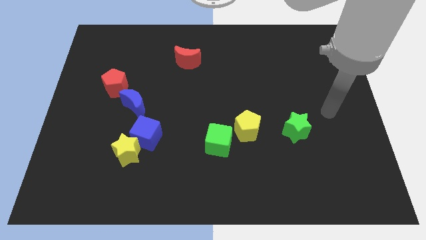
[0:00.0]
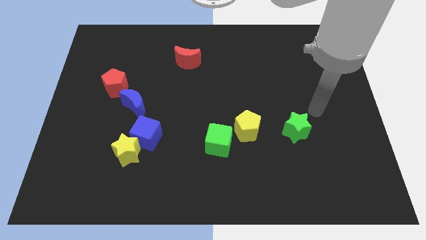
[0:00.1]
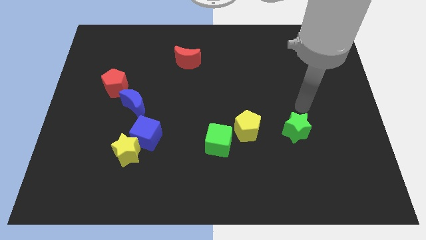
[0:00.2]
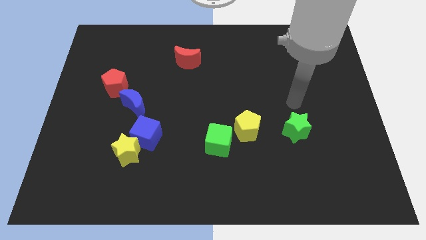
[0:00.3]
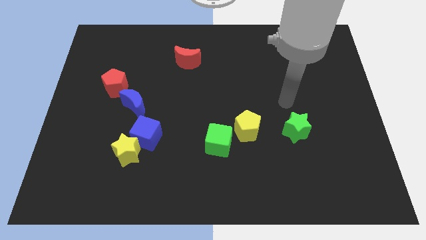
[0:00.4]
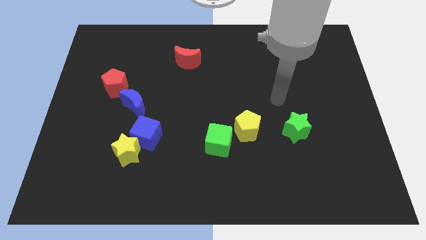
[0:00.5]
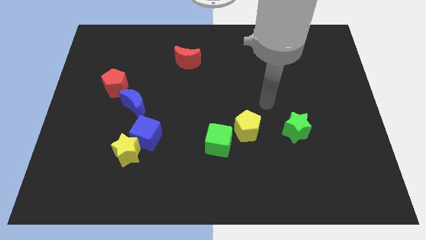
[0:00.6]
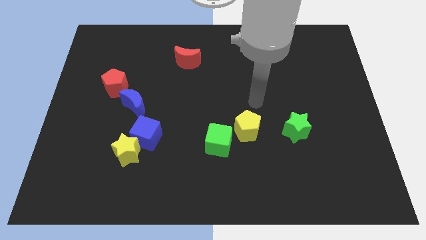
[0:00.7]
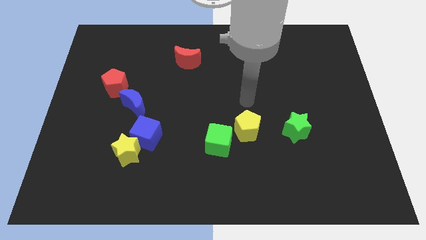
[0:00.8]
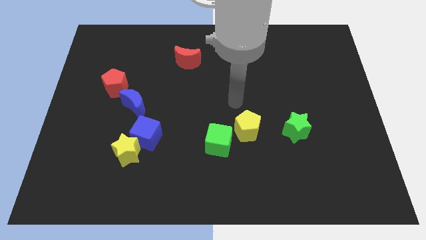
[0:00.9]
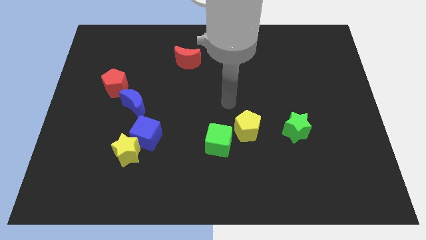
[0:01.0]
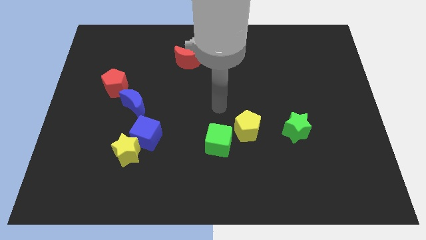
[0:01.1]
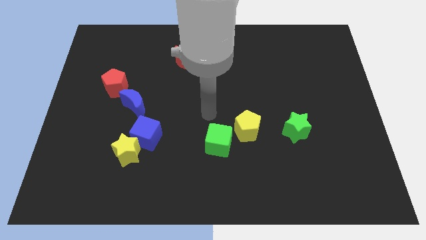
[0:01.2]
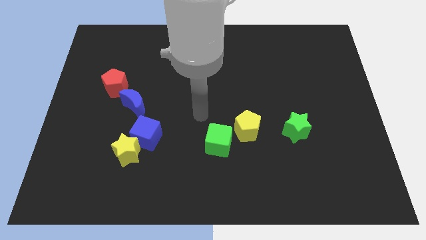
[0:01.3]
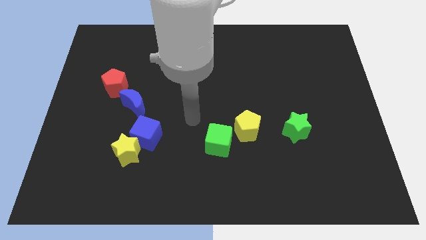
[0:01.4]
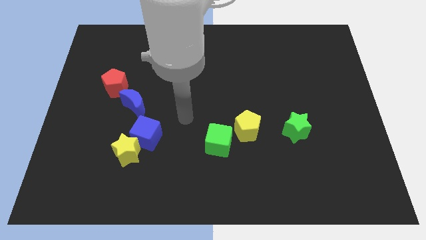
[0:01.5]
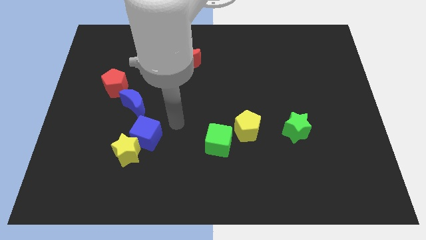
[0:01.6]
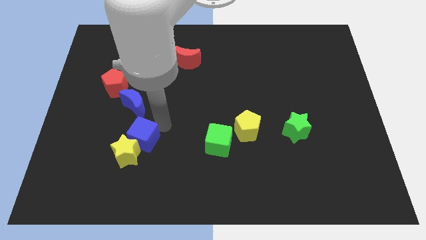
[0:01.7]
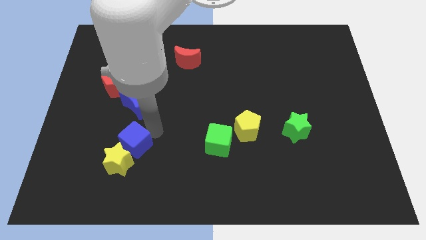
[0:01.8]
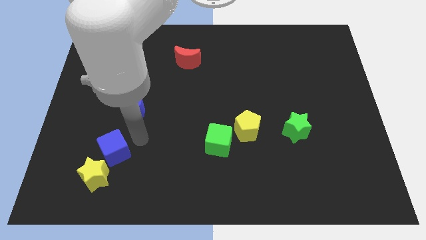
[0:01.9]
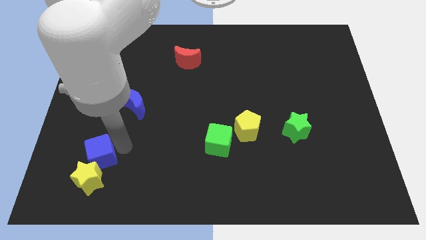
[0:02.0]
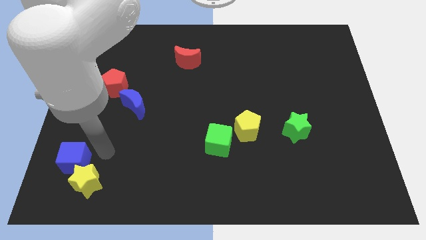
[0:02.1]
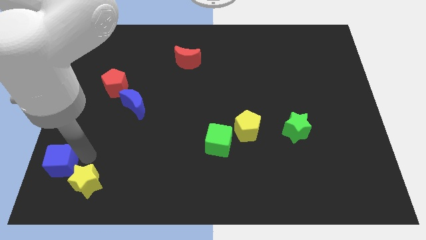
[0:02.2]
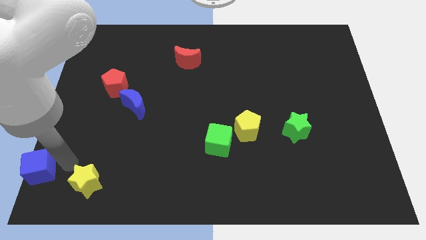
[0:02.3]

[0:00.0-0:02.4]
pull the yellow star apart from the blue cube

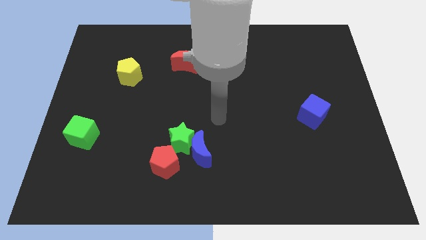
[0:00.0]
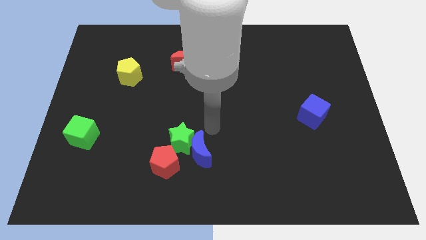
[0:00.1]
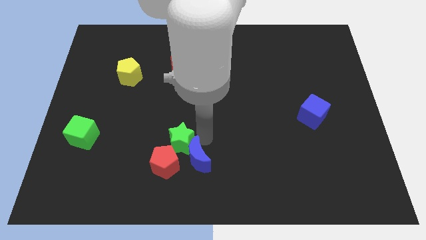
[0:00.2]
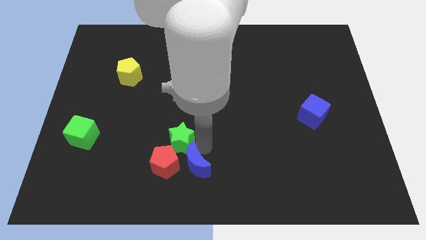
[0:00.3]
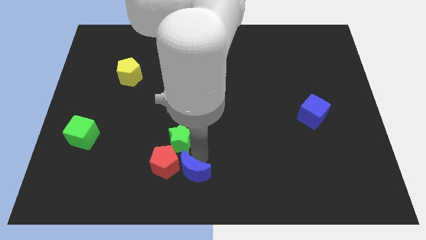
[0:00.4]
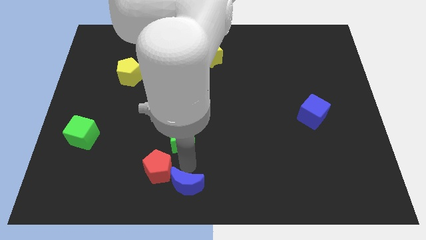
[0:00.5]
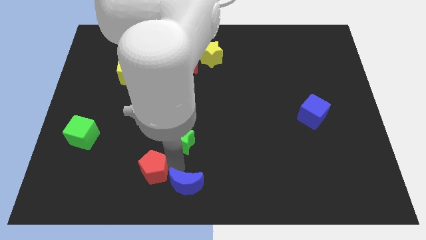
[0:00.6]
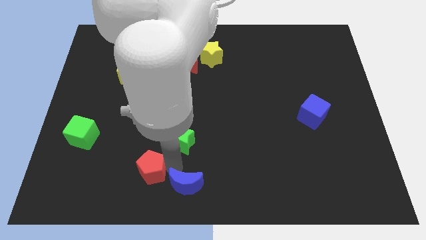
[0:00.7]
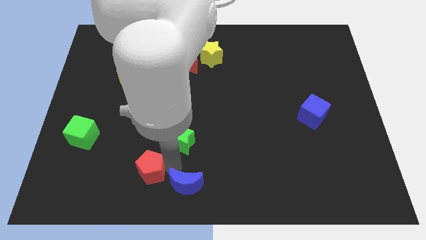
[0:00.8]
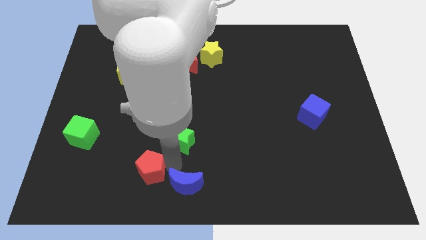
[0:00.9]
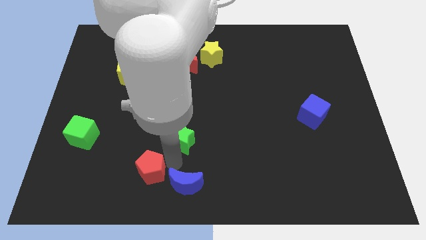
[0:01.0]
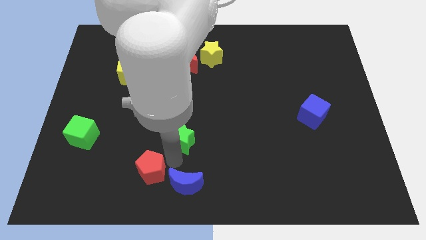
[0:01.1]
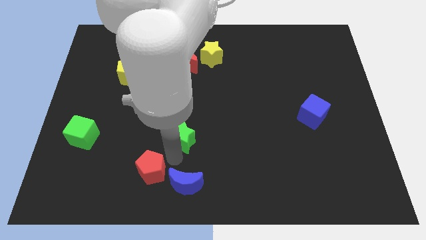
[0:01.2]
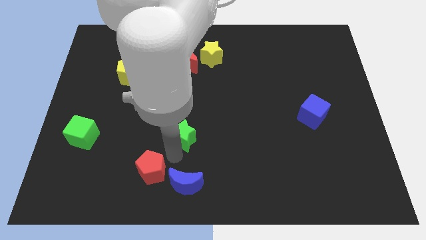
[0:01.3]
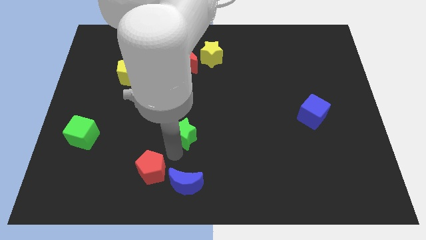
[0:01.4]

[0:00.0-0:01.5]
move the green star away from the blue moon and red pentagon

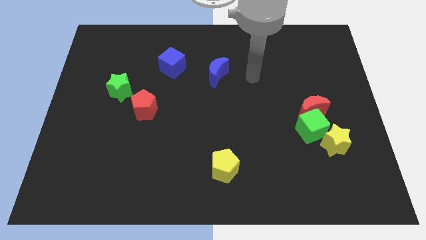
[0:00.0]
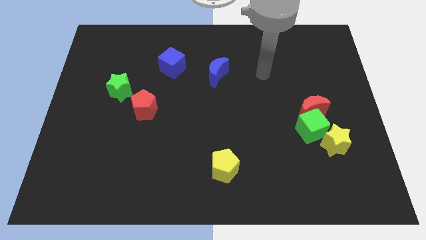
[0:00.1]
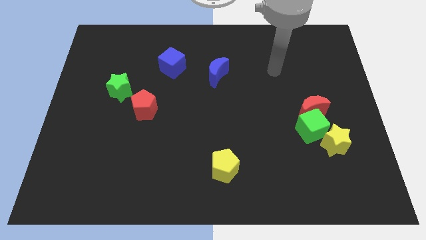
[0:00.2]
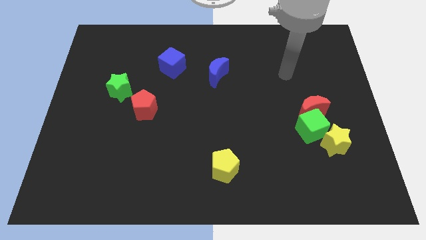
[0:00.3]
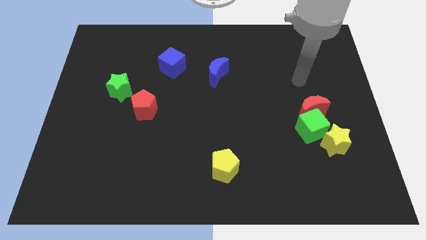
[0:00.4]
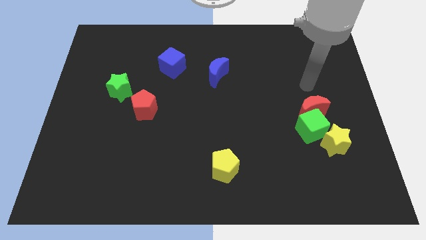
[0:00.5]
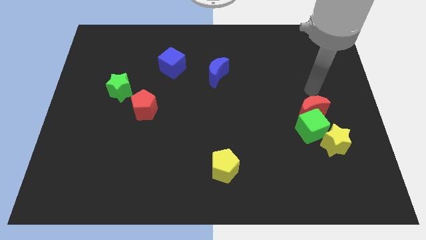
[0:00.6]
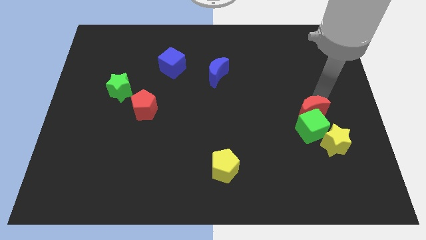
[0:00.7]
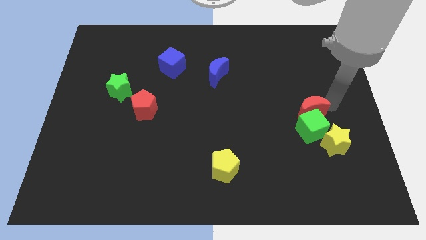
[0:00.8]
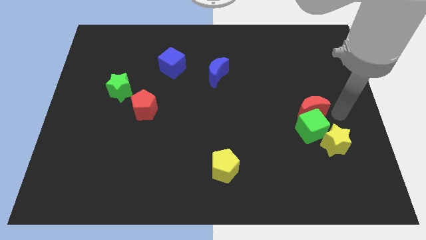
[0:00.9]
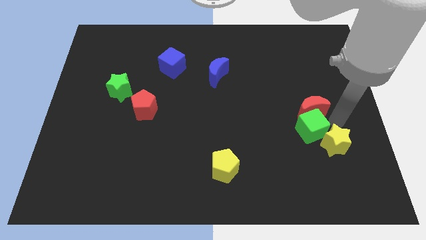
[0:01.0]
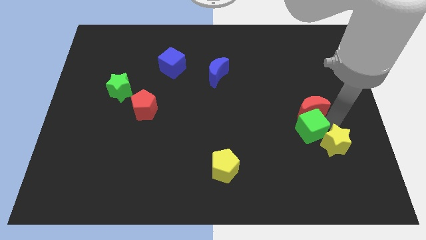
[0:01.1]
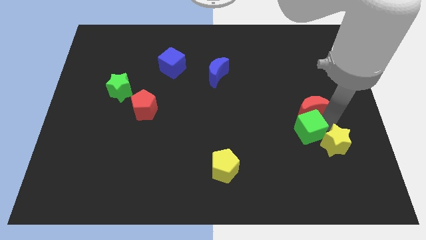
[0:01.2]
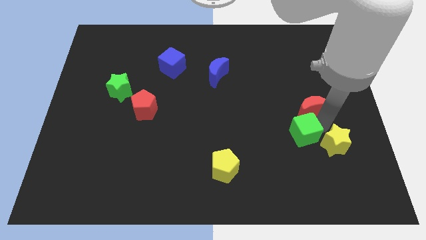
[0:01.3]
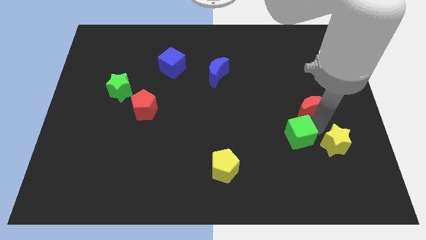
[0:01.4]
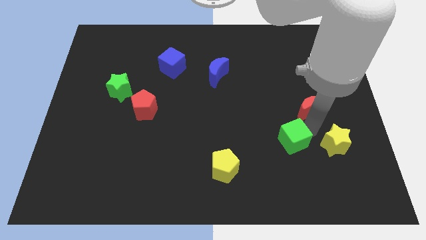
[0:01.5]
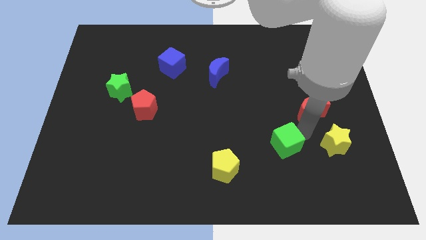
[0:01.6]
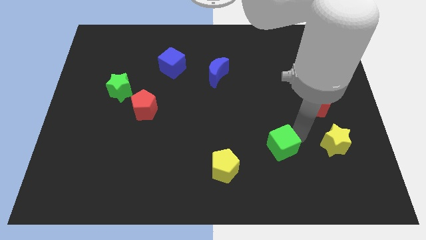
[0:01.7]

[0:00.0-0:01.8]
pull the green cube apart from the red moon and yellow star

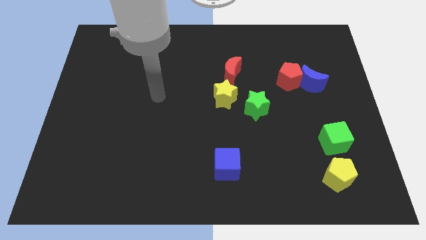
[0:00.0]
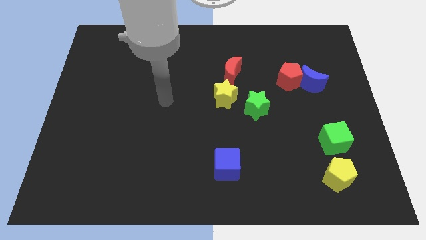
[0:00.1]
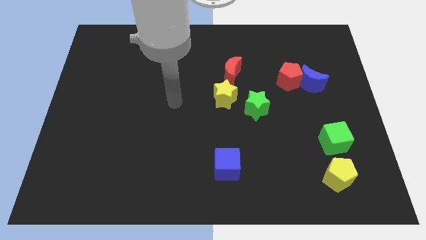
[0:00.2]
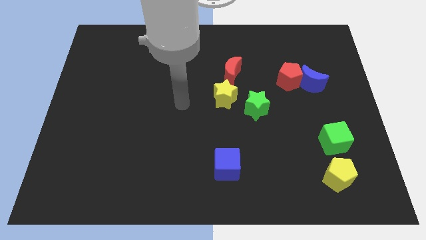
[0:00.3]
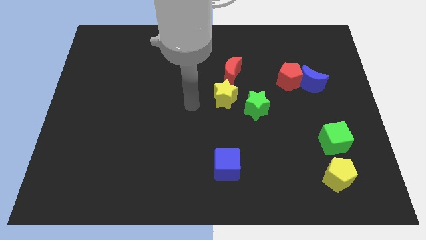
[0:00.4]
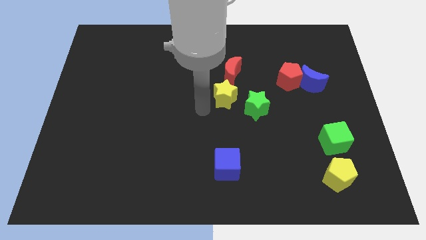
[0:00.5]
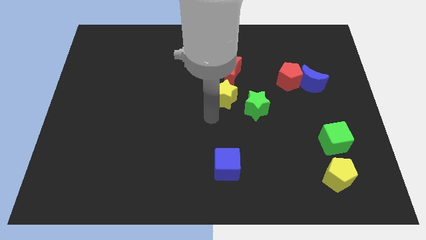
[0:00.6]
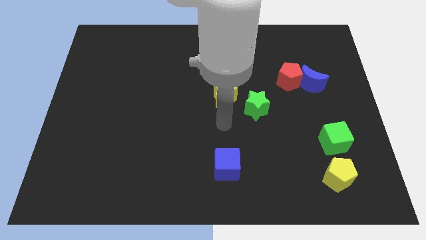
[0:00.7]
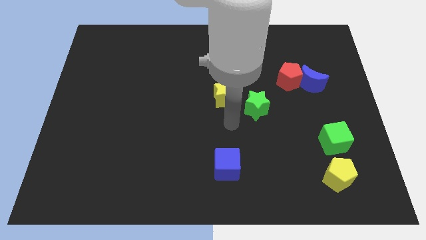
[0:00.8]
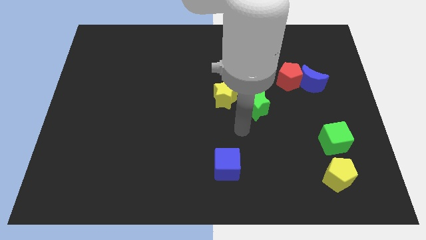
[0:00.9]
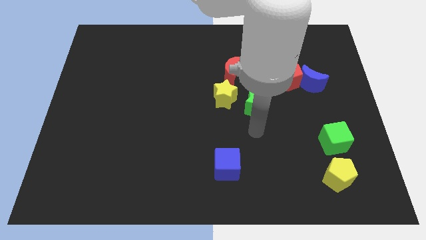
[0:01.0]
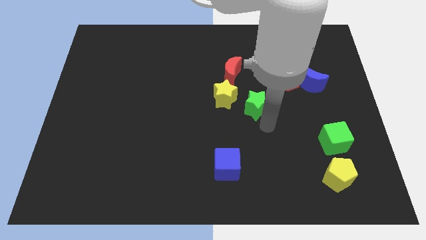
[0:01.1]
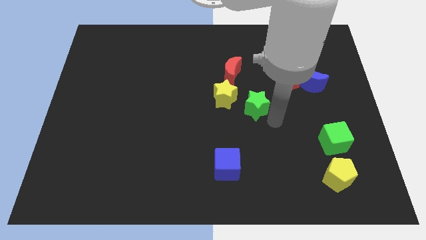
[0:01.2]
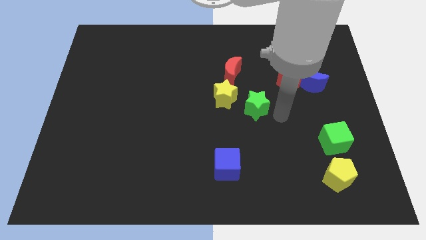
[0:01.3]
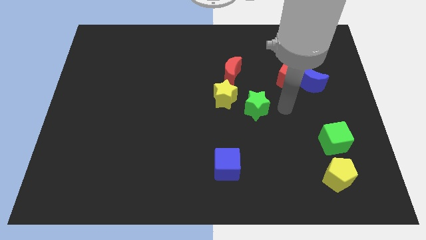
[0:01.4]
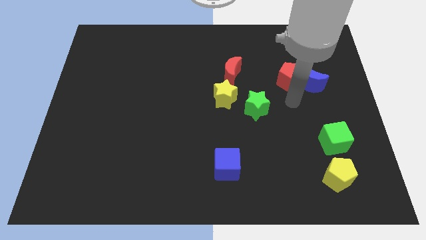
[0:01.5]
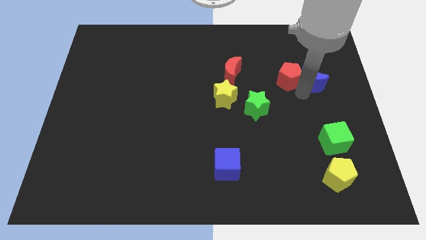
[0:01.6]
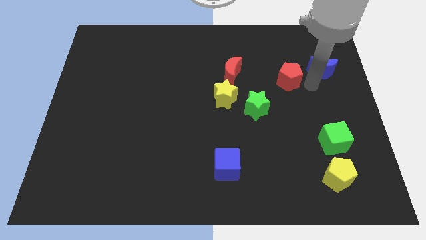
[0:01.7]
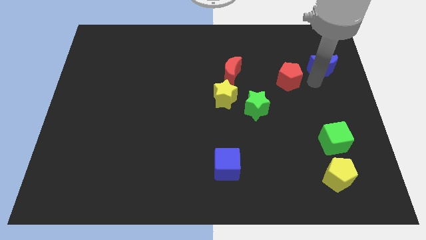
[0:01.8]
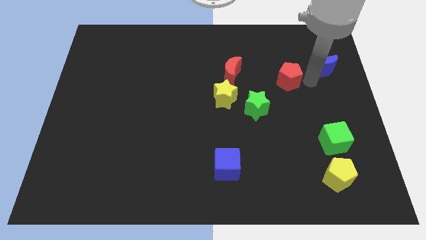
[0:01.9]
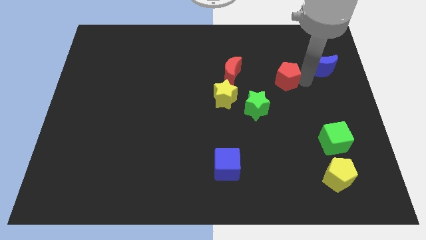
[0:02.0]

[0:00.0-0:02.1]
separate the red pentagon from the blue moon

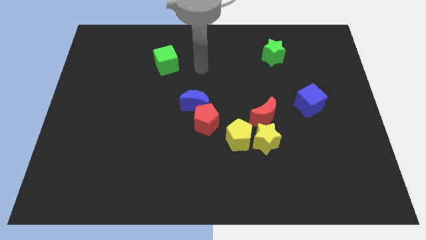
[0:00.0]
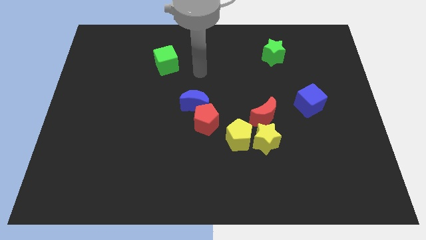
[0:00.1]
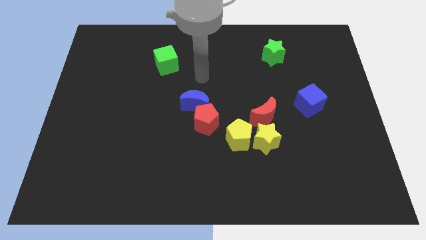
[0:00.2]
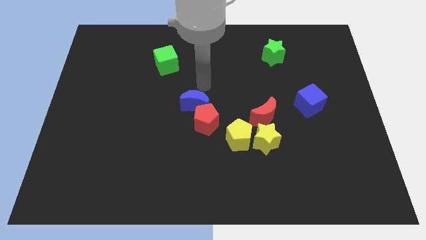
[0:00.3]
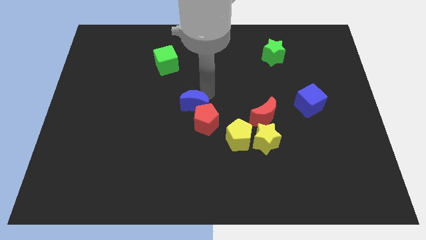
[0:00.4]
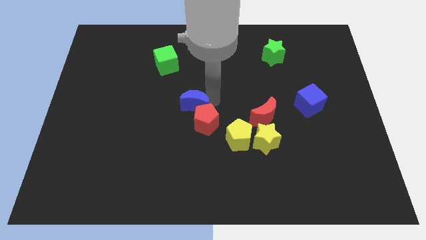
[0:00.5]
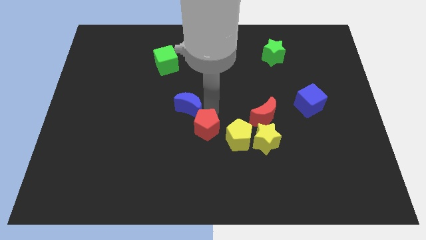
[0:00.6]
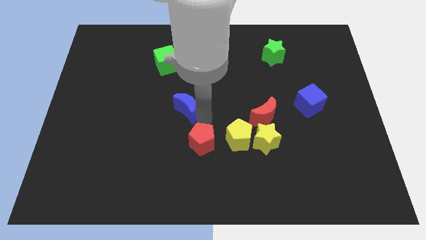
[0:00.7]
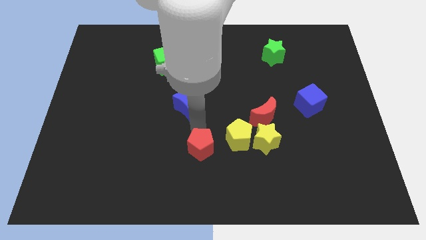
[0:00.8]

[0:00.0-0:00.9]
separate the blue moon from the red pentagon

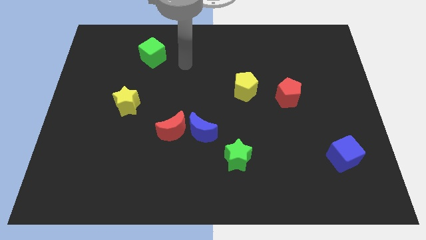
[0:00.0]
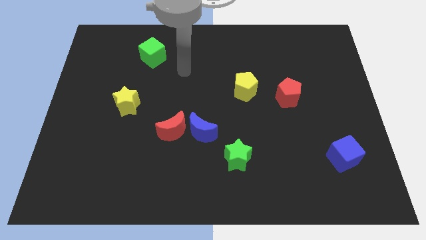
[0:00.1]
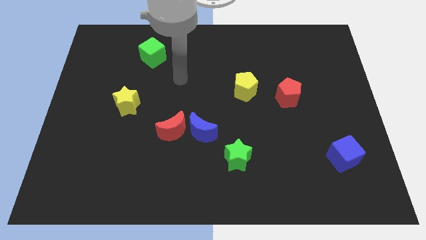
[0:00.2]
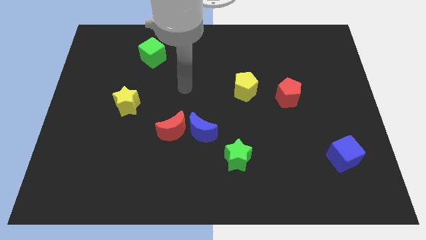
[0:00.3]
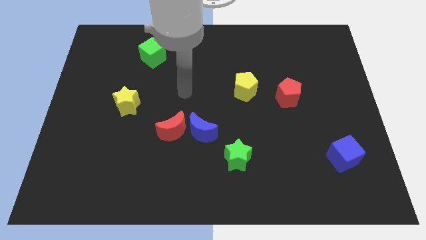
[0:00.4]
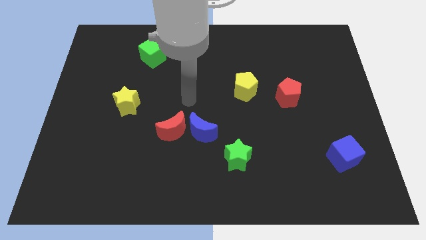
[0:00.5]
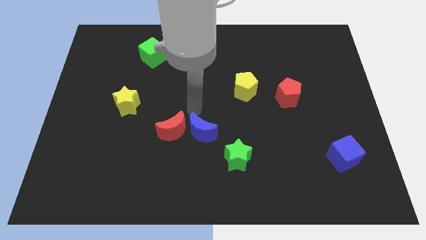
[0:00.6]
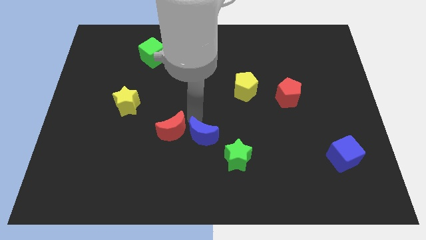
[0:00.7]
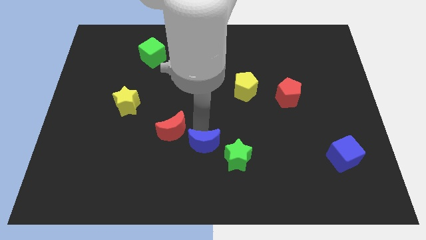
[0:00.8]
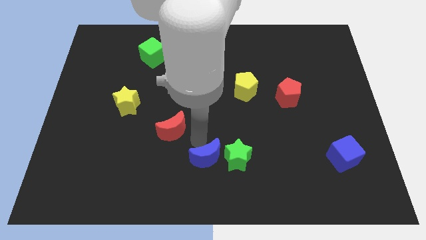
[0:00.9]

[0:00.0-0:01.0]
pull the red moon apart from the blue moon
